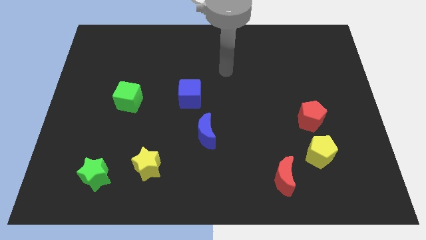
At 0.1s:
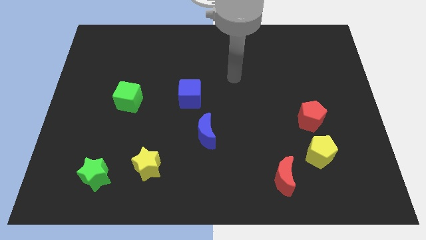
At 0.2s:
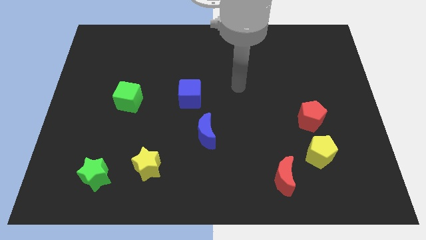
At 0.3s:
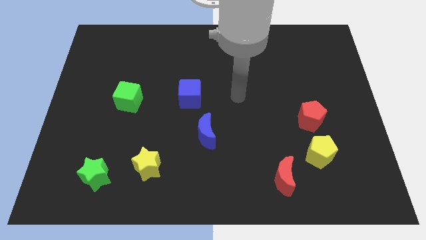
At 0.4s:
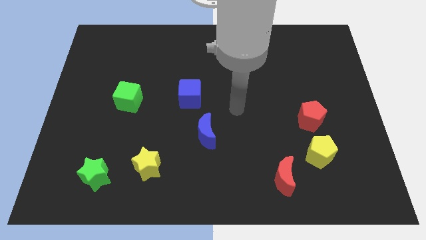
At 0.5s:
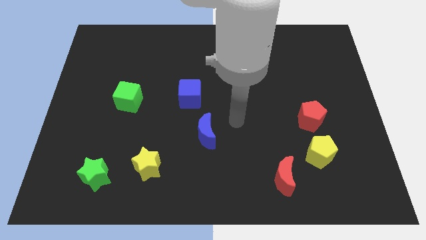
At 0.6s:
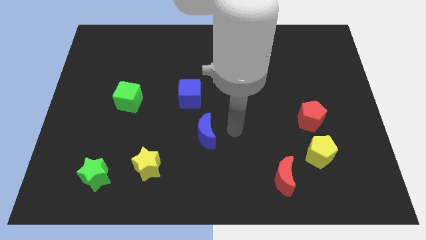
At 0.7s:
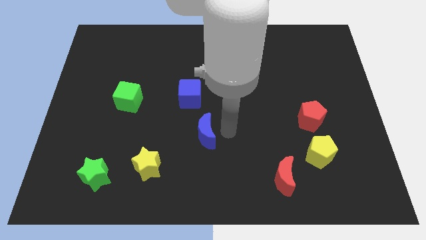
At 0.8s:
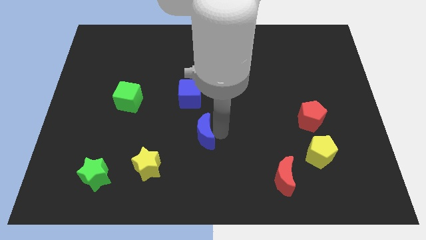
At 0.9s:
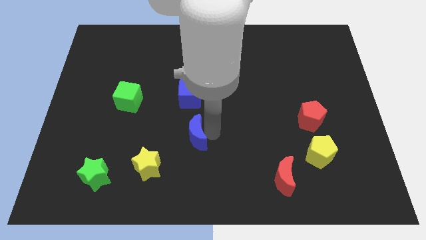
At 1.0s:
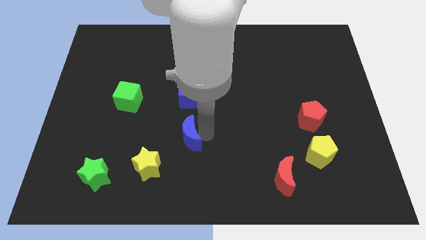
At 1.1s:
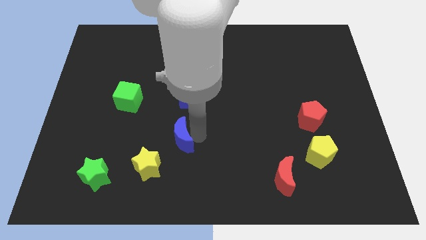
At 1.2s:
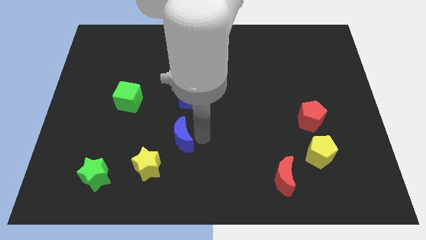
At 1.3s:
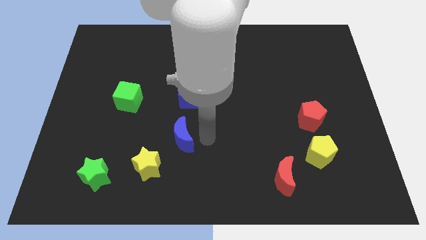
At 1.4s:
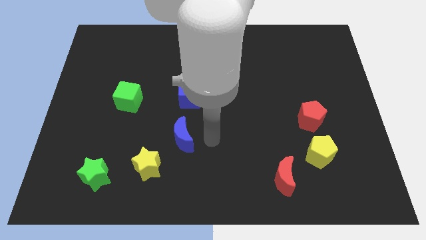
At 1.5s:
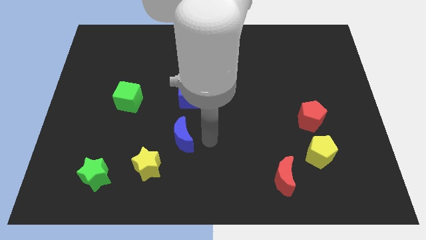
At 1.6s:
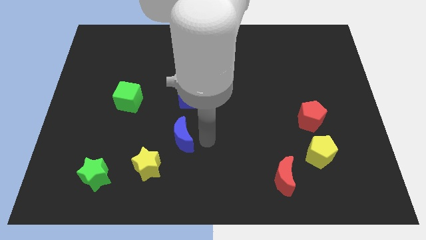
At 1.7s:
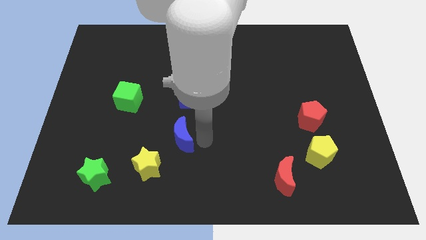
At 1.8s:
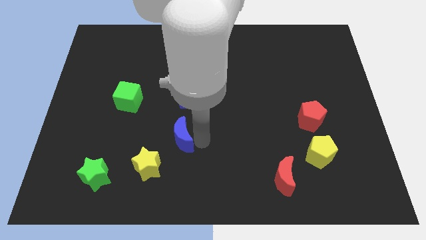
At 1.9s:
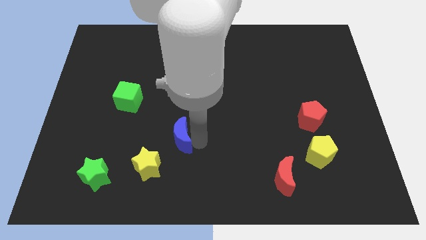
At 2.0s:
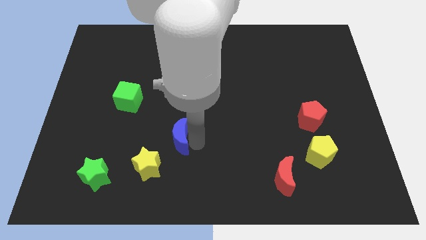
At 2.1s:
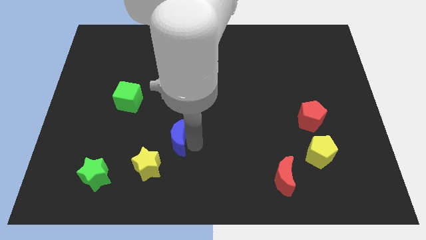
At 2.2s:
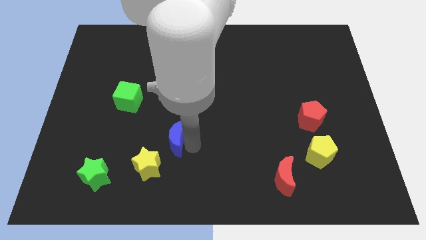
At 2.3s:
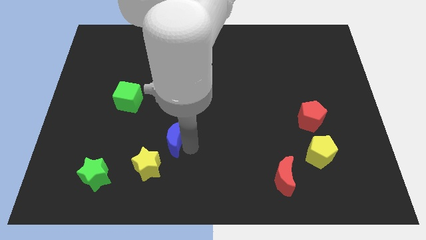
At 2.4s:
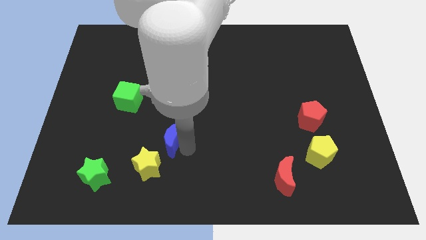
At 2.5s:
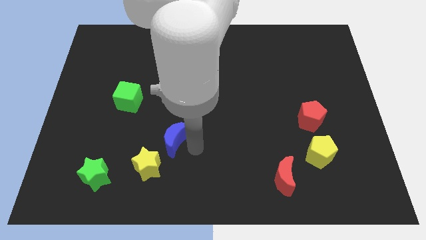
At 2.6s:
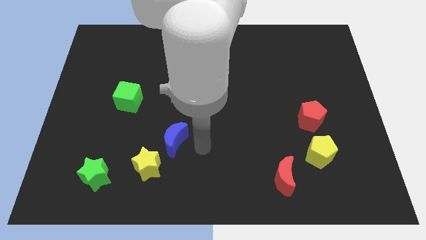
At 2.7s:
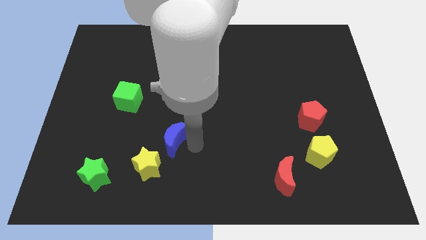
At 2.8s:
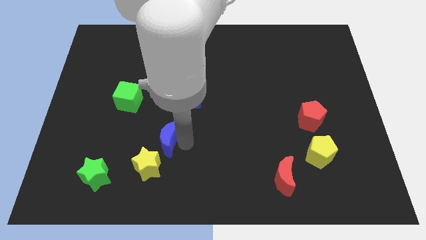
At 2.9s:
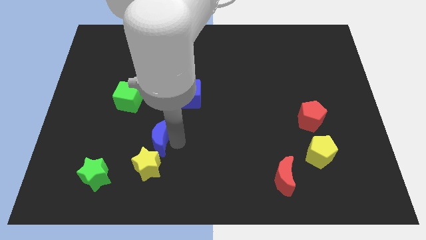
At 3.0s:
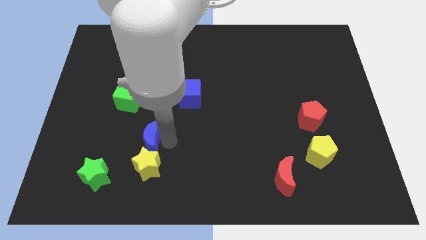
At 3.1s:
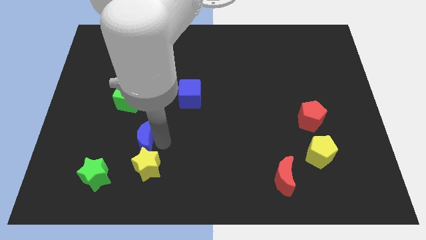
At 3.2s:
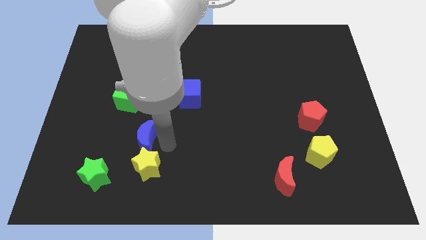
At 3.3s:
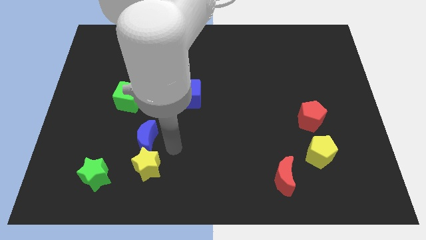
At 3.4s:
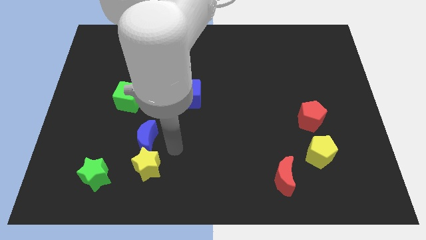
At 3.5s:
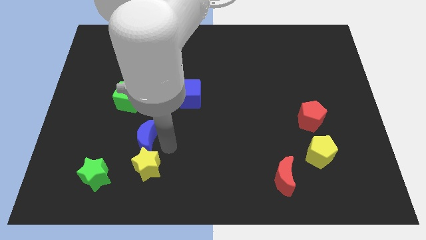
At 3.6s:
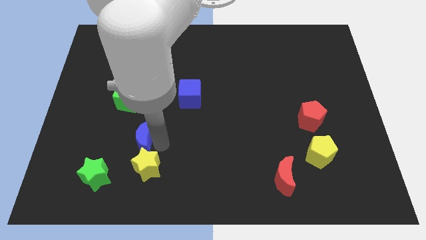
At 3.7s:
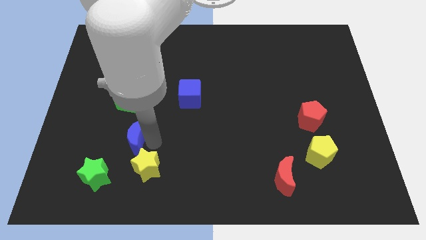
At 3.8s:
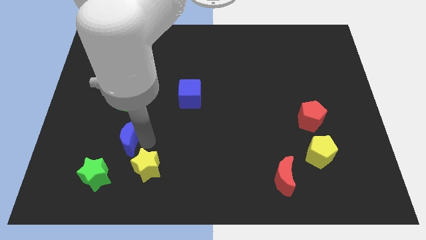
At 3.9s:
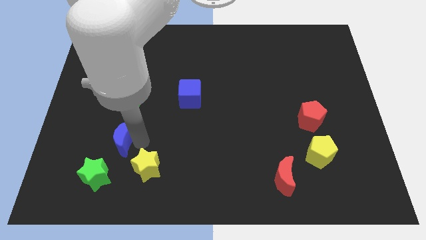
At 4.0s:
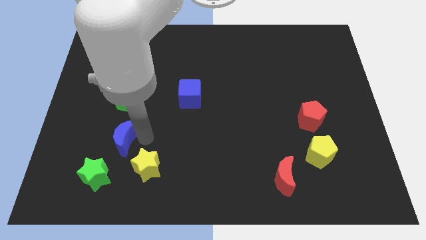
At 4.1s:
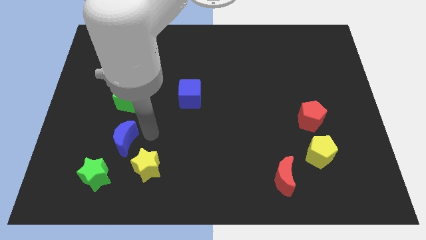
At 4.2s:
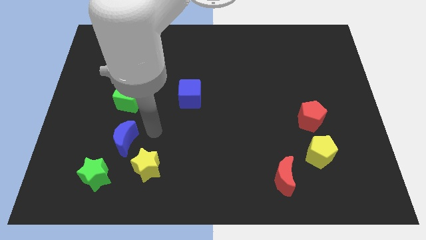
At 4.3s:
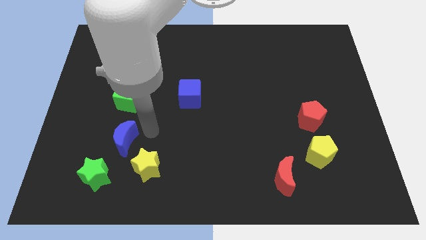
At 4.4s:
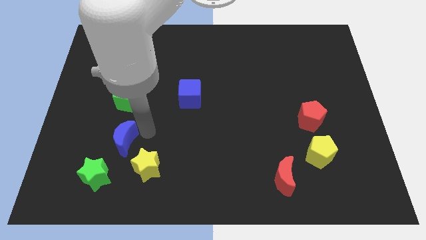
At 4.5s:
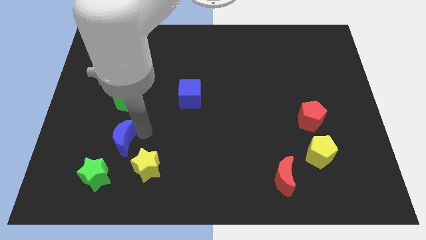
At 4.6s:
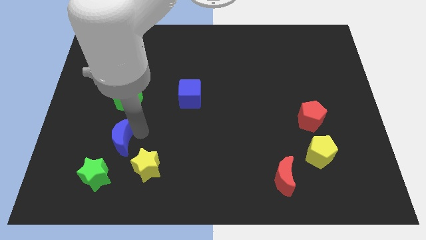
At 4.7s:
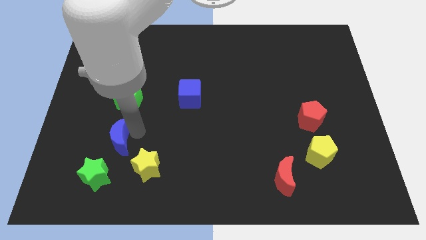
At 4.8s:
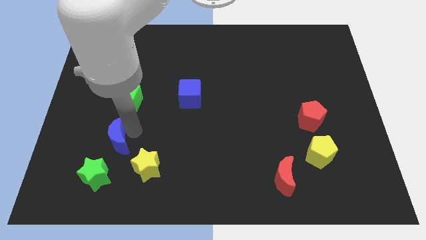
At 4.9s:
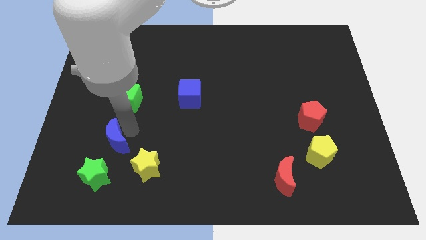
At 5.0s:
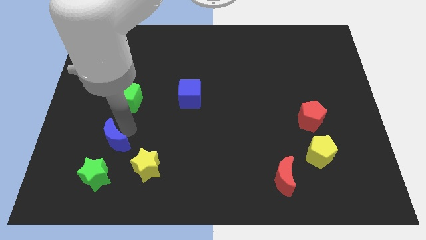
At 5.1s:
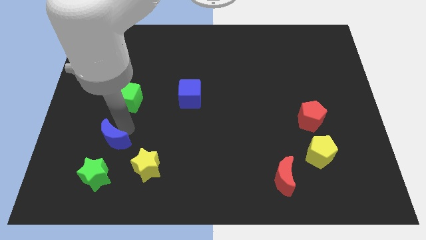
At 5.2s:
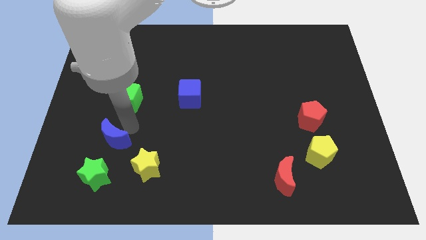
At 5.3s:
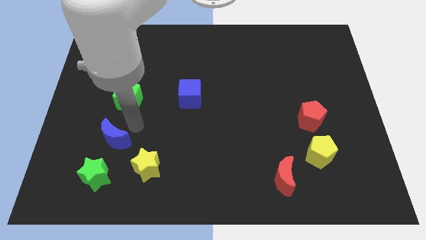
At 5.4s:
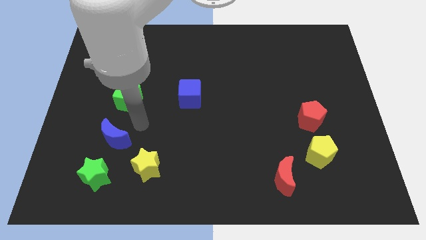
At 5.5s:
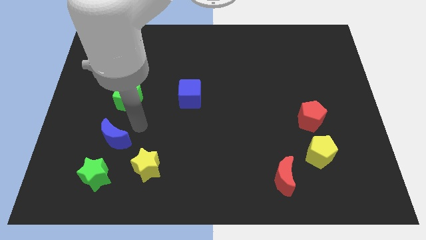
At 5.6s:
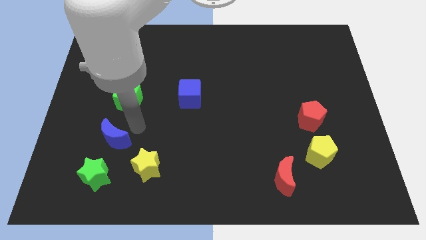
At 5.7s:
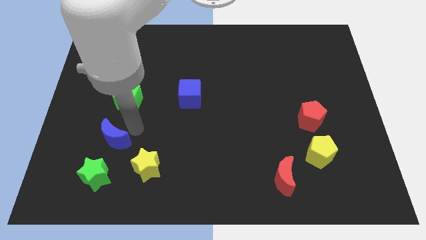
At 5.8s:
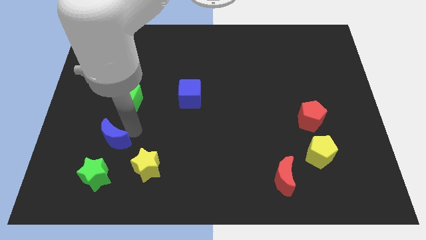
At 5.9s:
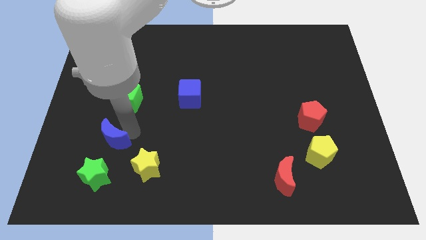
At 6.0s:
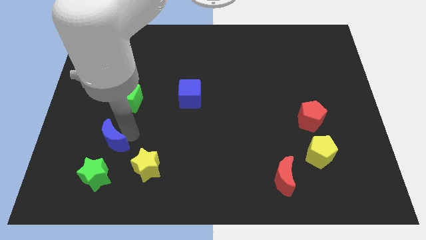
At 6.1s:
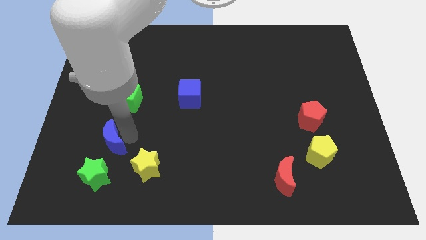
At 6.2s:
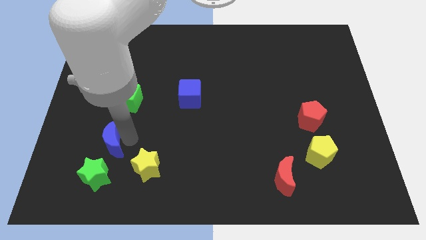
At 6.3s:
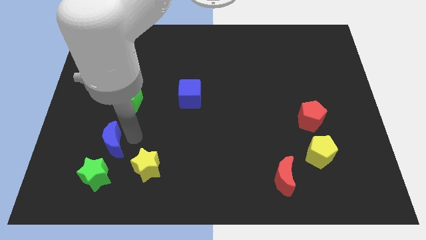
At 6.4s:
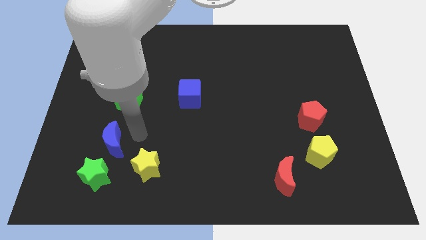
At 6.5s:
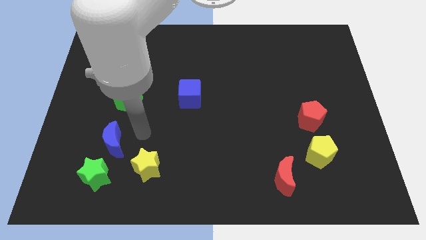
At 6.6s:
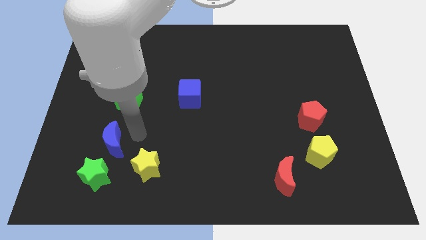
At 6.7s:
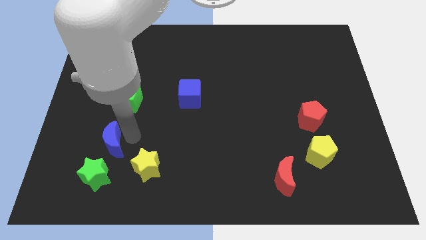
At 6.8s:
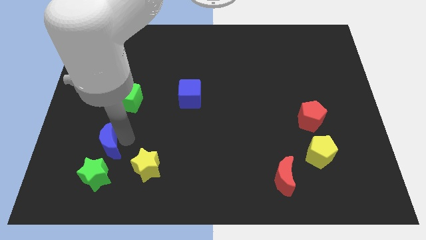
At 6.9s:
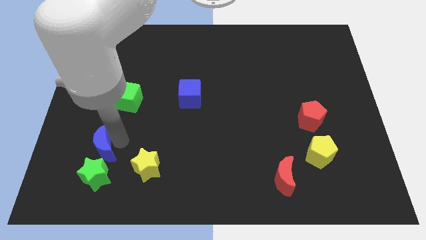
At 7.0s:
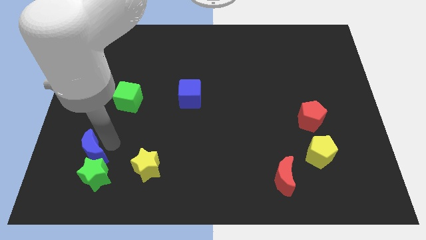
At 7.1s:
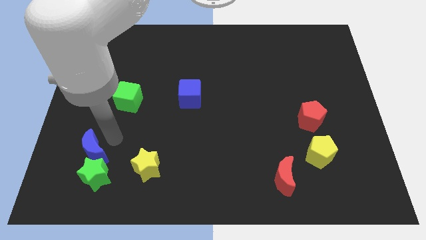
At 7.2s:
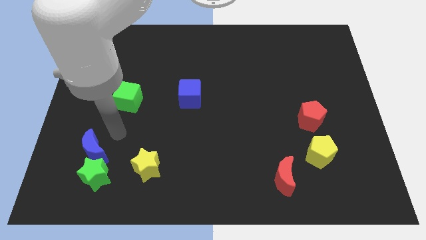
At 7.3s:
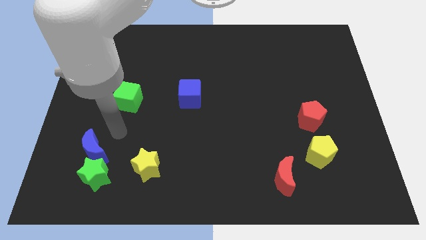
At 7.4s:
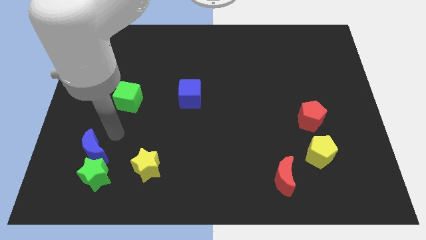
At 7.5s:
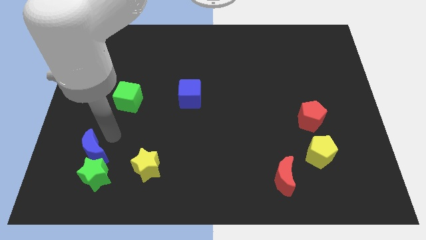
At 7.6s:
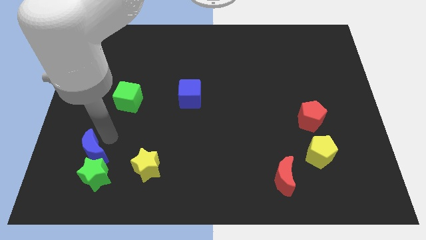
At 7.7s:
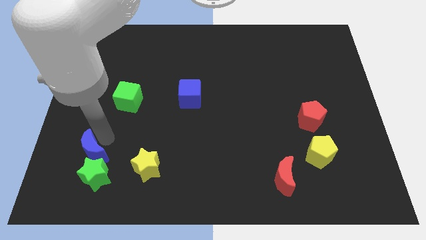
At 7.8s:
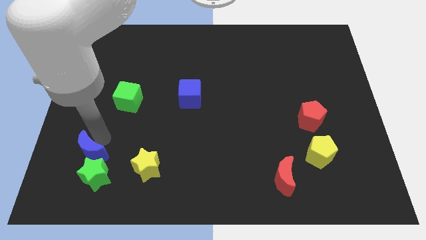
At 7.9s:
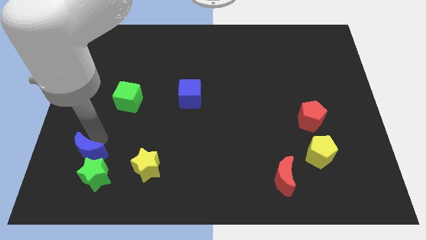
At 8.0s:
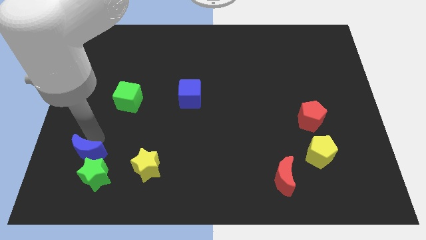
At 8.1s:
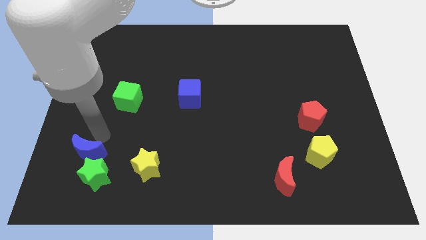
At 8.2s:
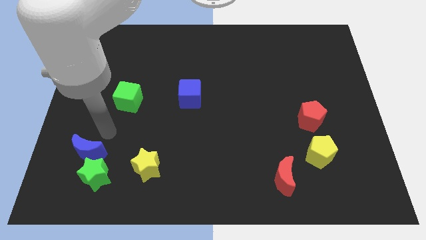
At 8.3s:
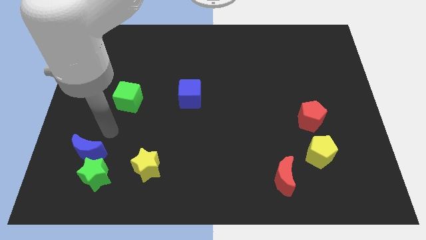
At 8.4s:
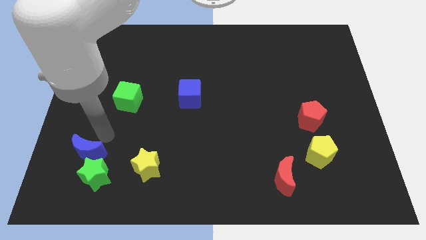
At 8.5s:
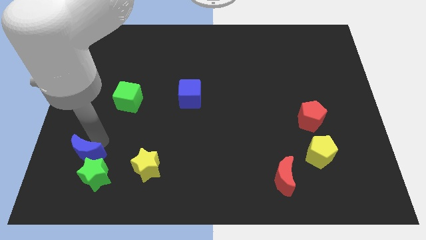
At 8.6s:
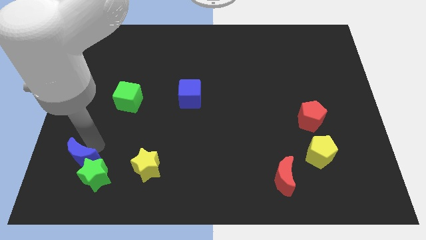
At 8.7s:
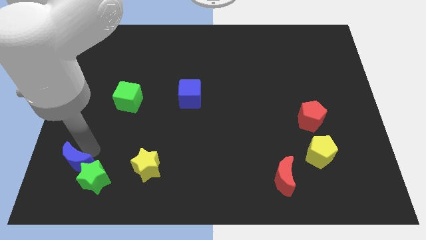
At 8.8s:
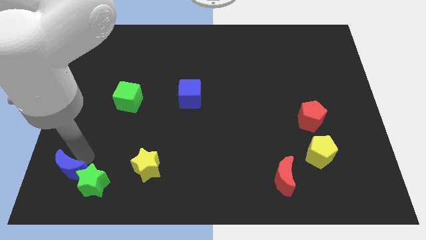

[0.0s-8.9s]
slide the blue moon to the bottom left corner
